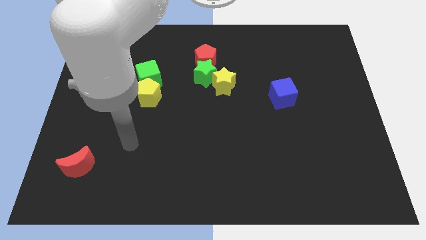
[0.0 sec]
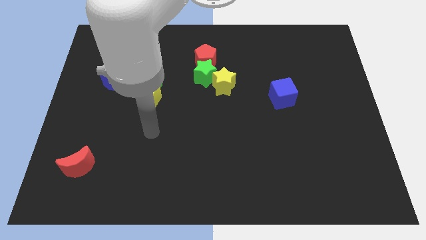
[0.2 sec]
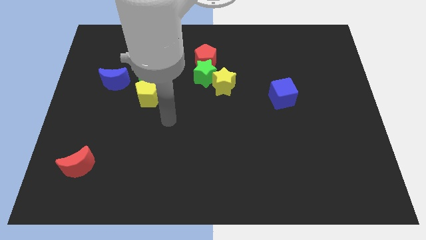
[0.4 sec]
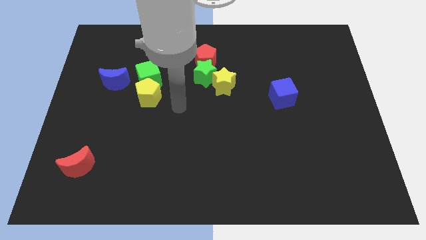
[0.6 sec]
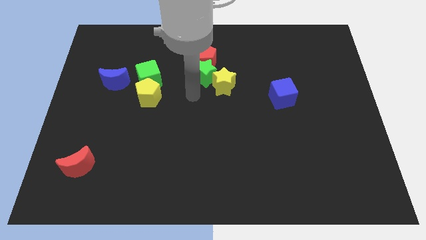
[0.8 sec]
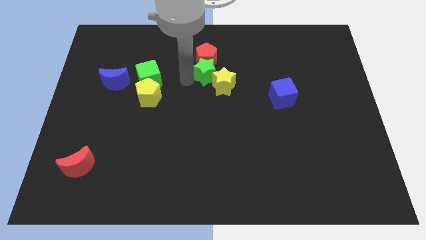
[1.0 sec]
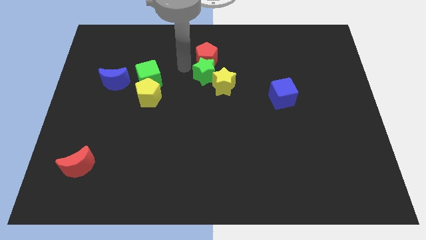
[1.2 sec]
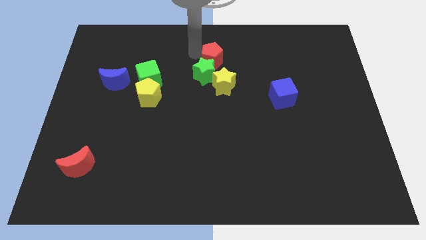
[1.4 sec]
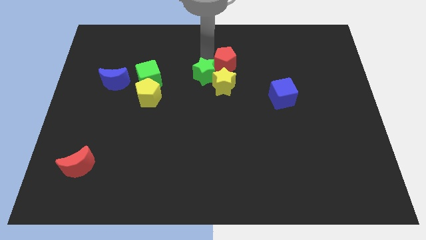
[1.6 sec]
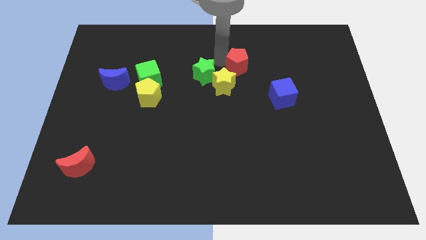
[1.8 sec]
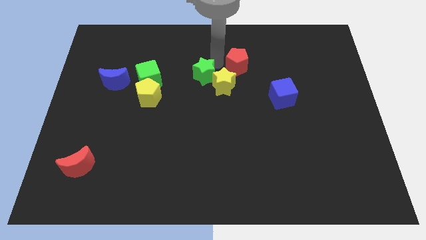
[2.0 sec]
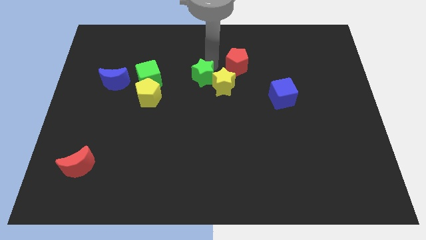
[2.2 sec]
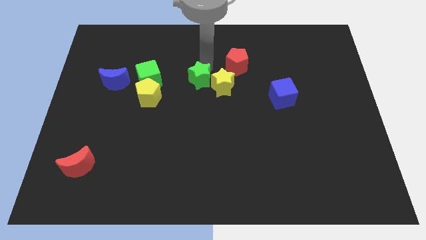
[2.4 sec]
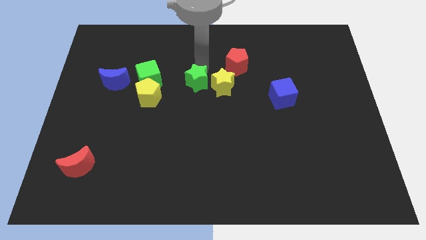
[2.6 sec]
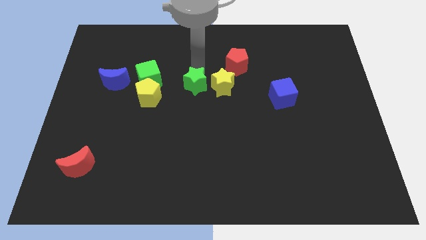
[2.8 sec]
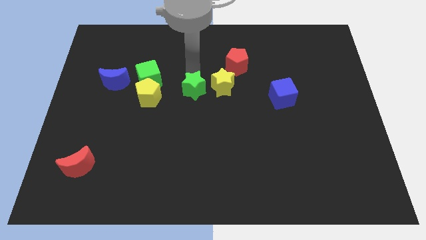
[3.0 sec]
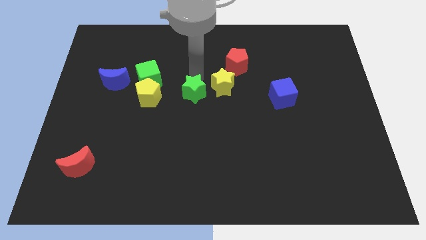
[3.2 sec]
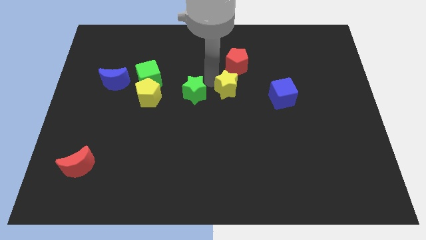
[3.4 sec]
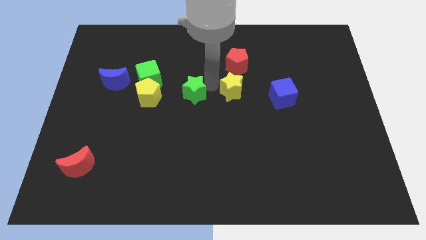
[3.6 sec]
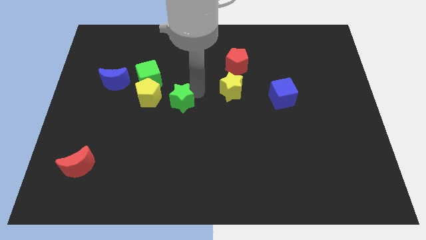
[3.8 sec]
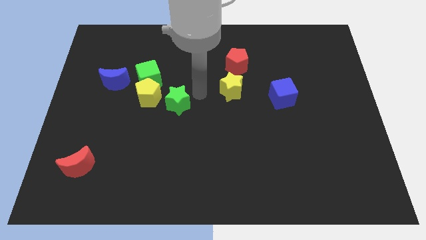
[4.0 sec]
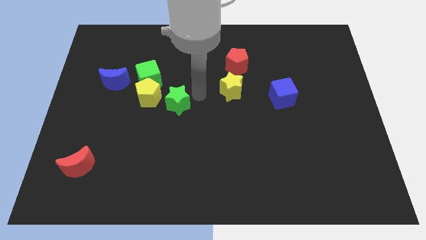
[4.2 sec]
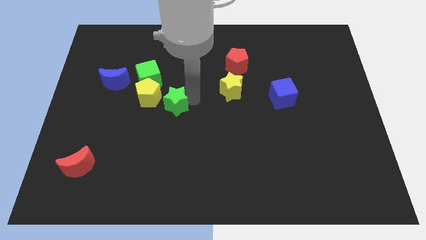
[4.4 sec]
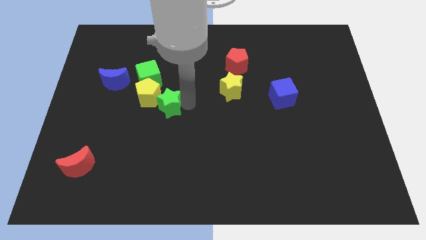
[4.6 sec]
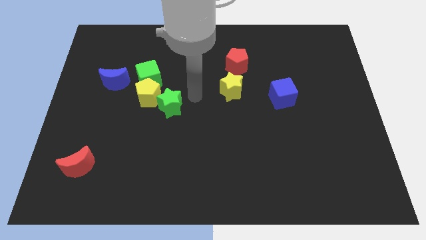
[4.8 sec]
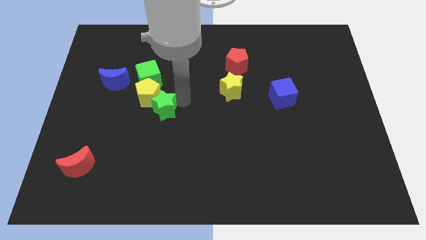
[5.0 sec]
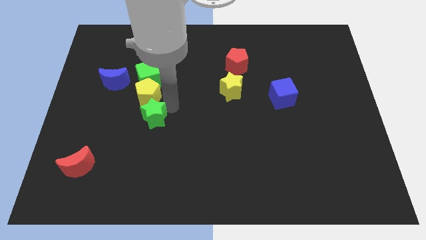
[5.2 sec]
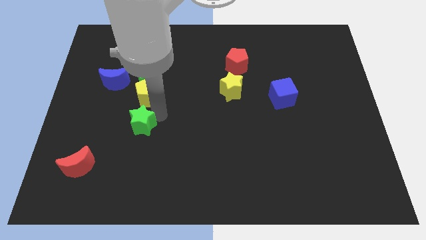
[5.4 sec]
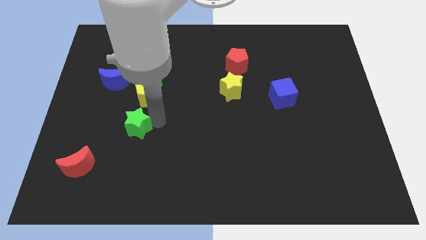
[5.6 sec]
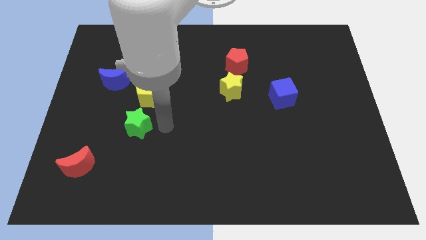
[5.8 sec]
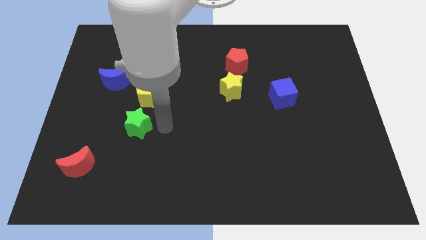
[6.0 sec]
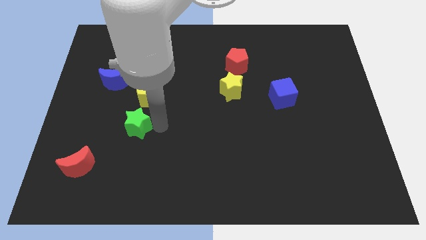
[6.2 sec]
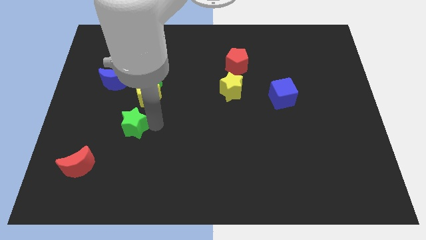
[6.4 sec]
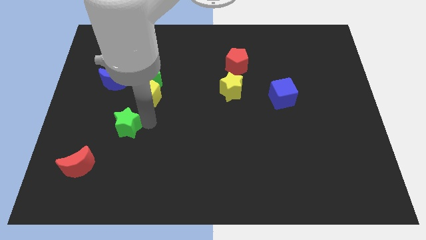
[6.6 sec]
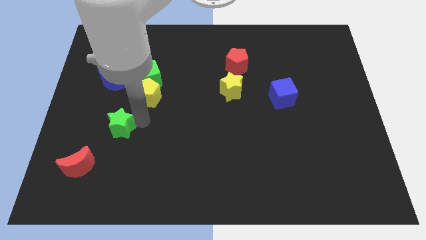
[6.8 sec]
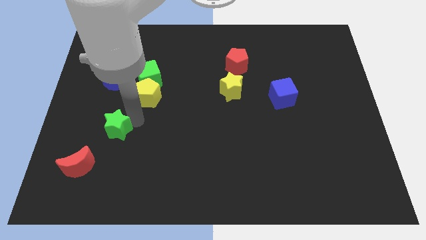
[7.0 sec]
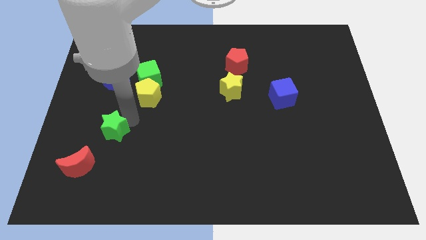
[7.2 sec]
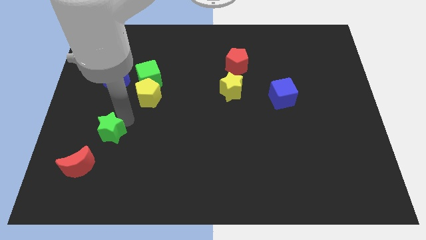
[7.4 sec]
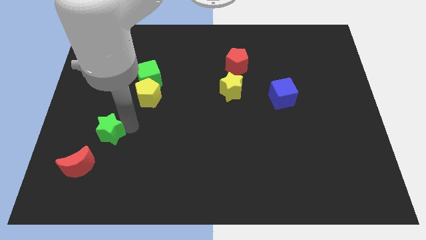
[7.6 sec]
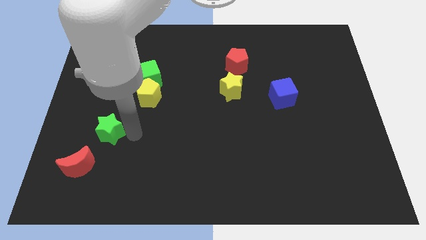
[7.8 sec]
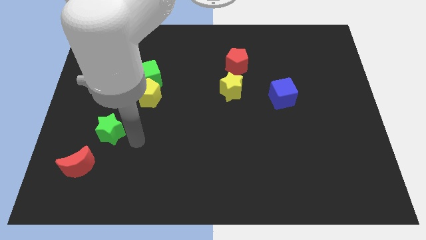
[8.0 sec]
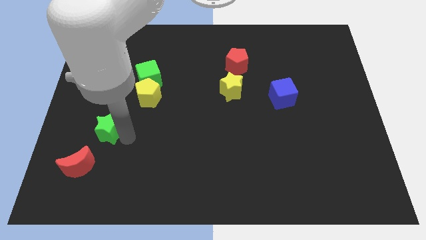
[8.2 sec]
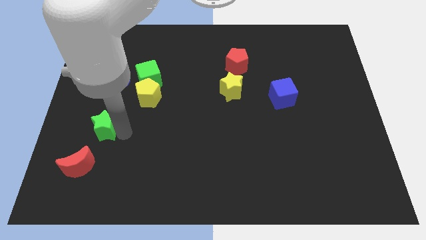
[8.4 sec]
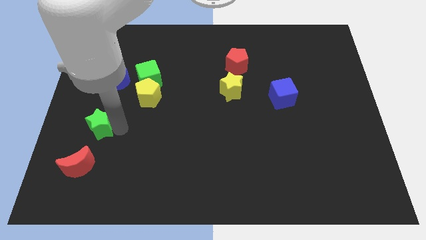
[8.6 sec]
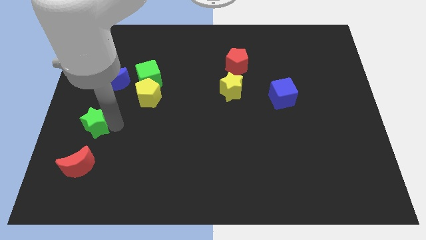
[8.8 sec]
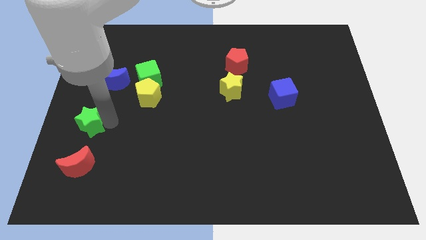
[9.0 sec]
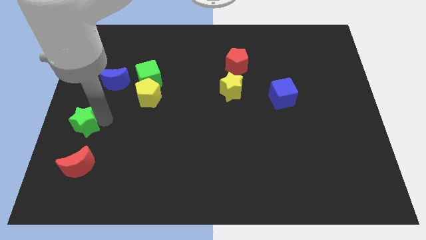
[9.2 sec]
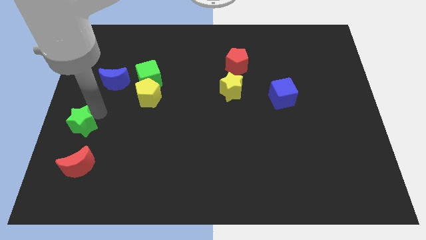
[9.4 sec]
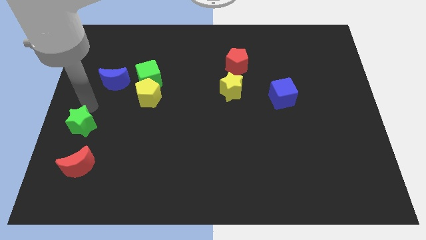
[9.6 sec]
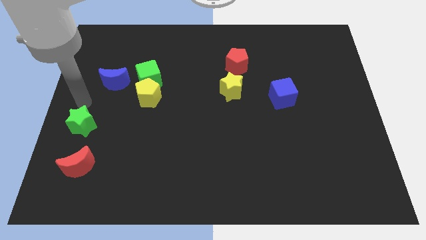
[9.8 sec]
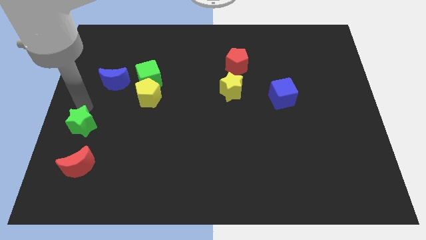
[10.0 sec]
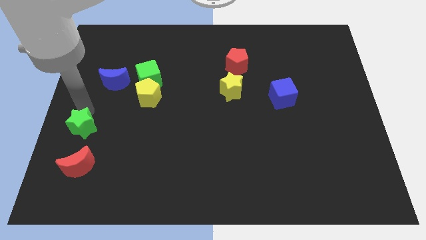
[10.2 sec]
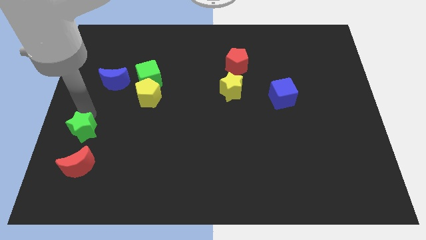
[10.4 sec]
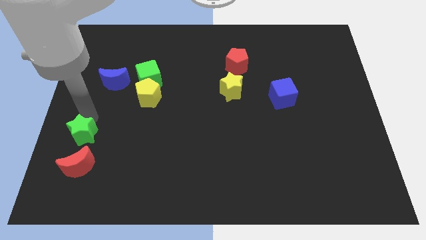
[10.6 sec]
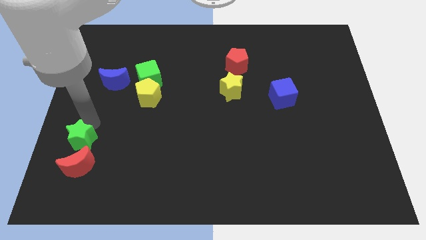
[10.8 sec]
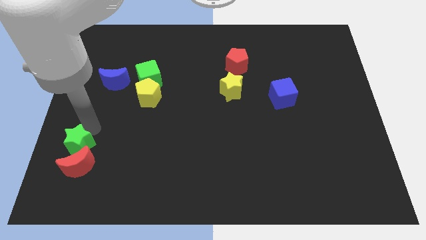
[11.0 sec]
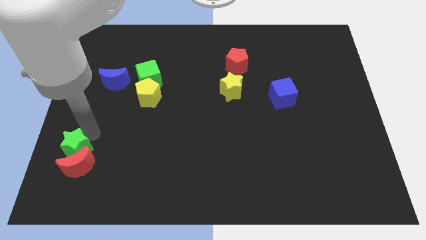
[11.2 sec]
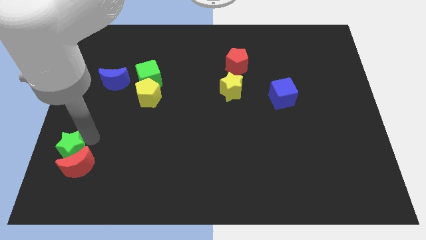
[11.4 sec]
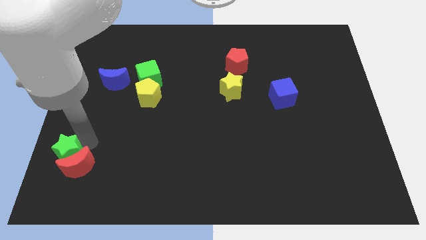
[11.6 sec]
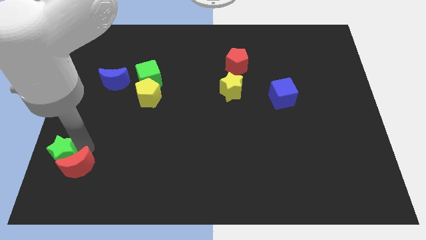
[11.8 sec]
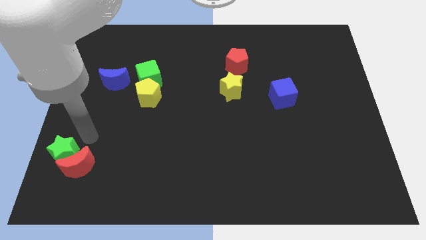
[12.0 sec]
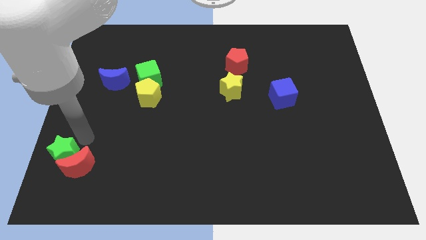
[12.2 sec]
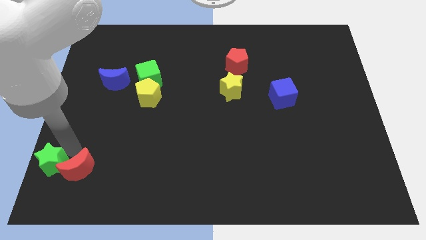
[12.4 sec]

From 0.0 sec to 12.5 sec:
move the green star to the lower left corner

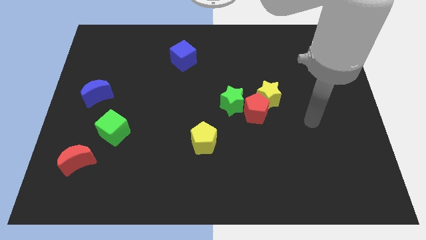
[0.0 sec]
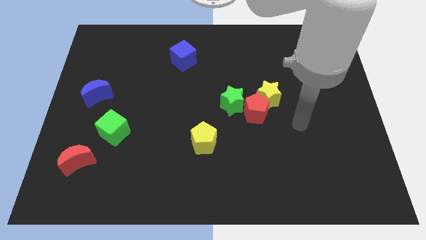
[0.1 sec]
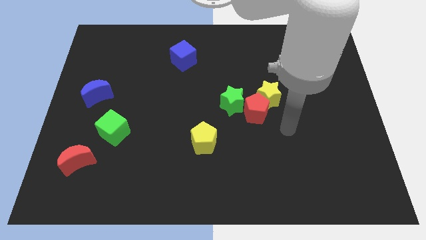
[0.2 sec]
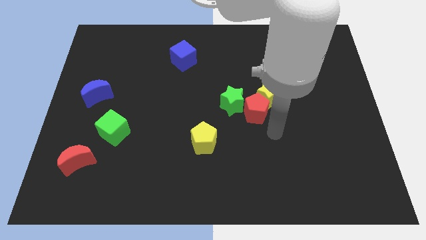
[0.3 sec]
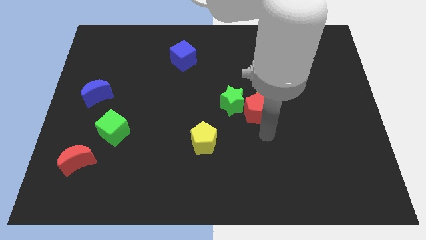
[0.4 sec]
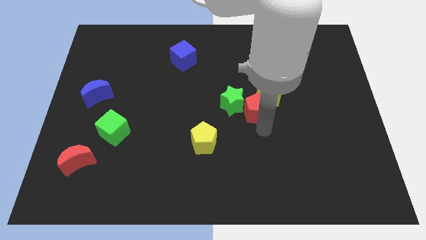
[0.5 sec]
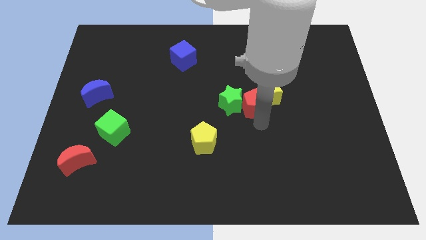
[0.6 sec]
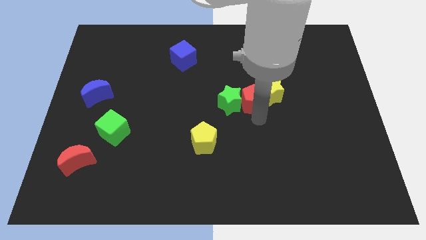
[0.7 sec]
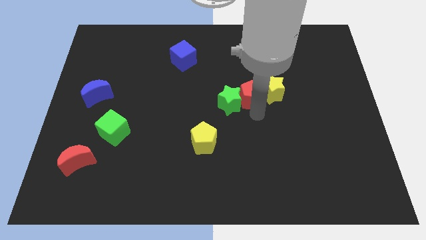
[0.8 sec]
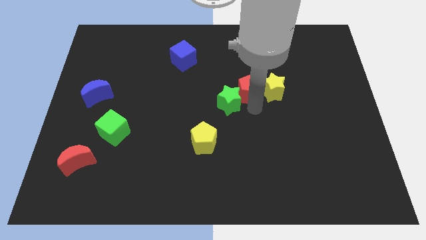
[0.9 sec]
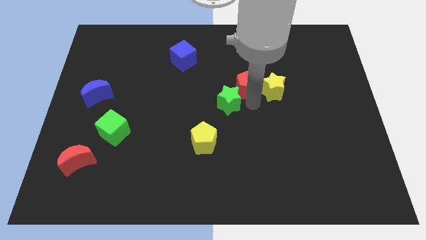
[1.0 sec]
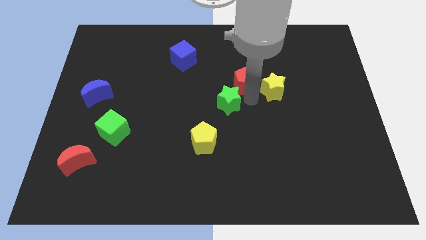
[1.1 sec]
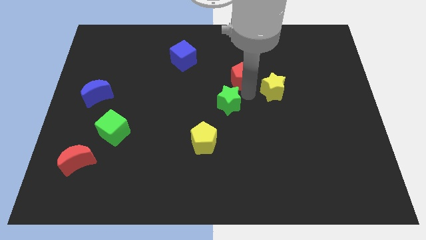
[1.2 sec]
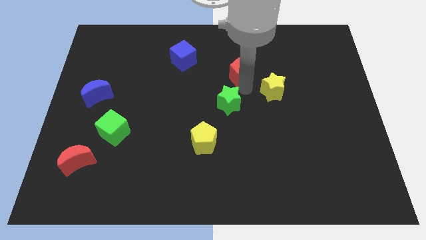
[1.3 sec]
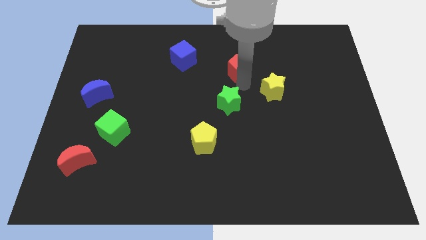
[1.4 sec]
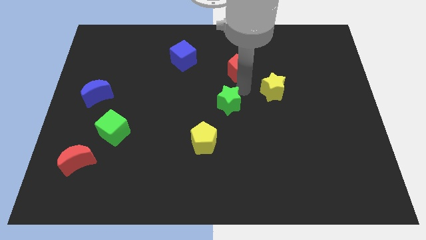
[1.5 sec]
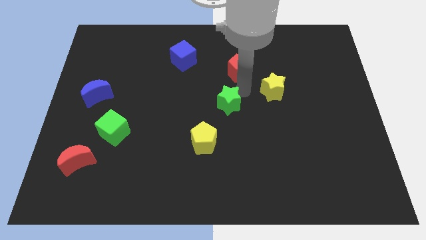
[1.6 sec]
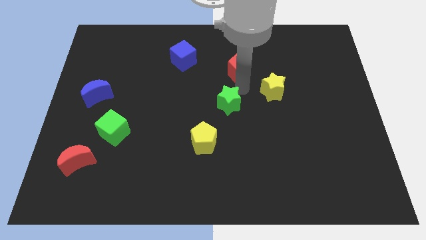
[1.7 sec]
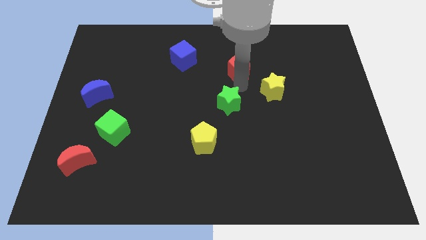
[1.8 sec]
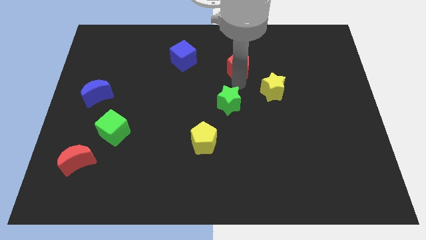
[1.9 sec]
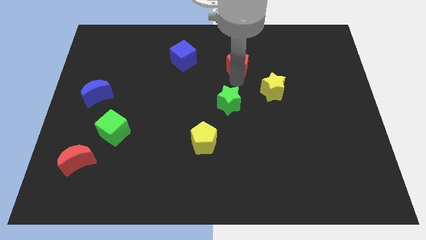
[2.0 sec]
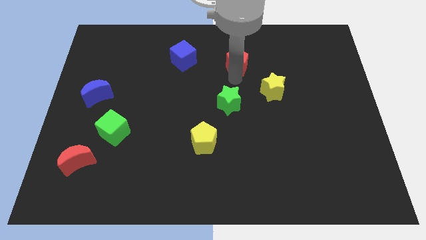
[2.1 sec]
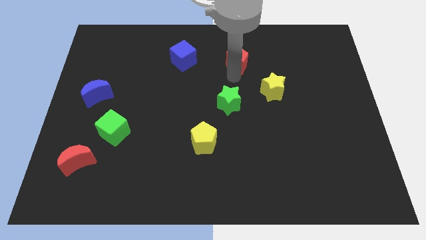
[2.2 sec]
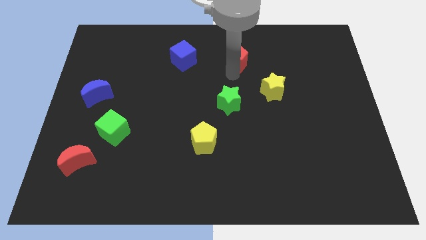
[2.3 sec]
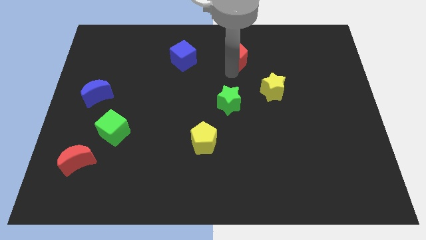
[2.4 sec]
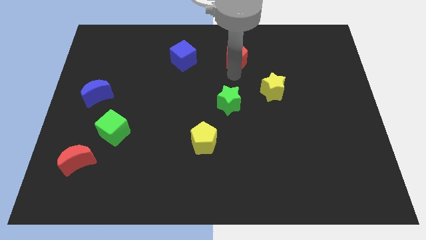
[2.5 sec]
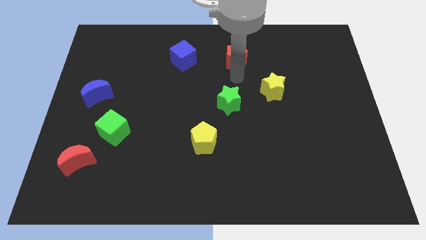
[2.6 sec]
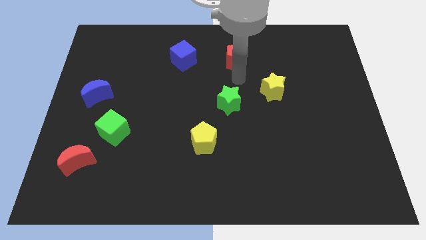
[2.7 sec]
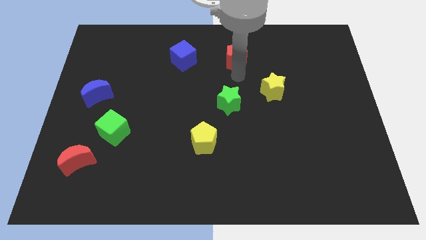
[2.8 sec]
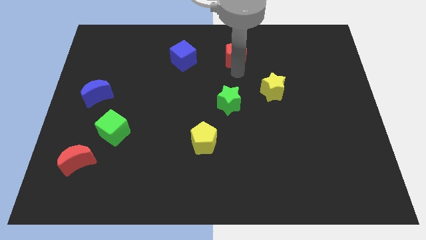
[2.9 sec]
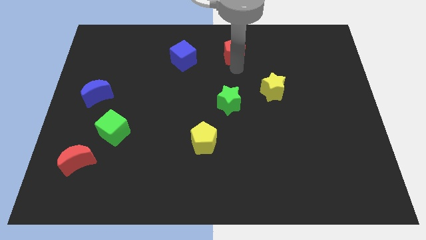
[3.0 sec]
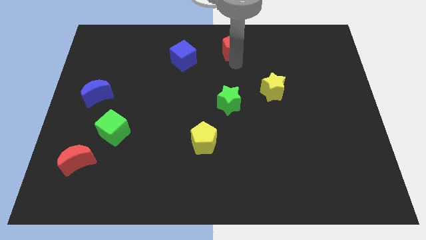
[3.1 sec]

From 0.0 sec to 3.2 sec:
put the red pentagon to the top
